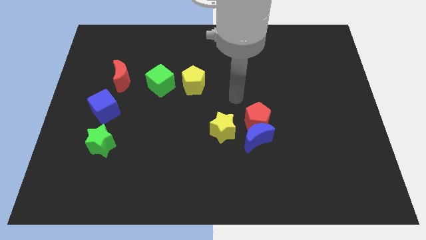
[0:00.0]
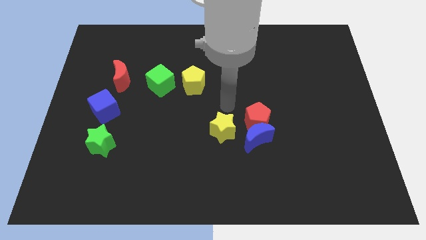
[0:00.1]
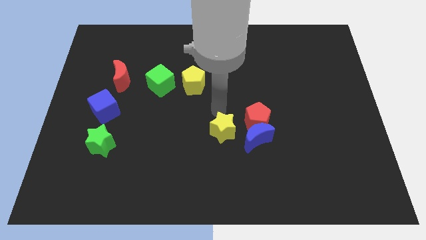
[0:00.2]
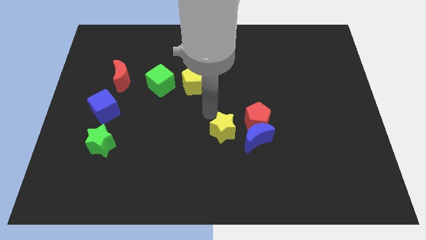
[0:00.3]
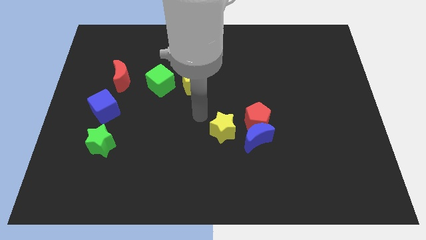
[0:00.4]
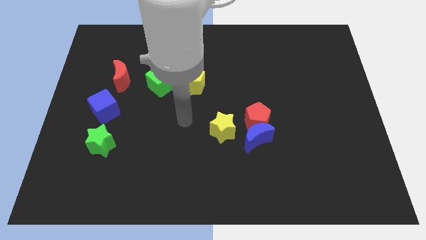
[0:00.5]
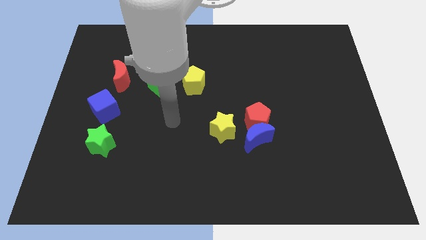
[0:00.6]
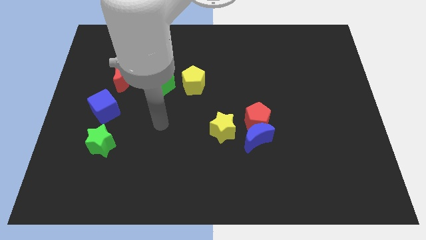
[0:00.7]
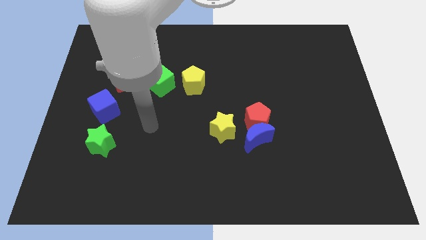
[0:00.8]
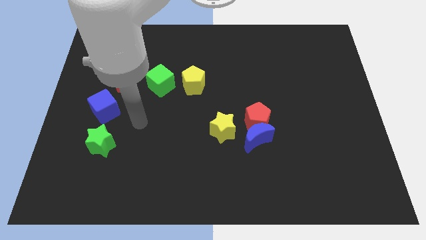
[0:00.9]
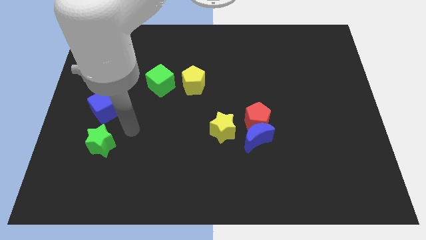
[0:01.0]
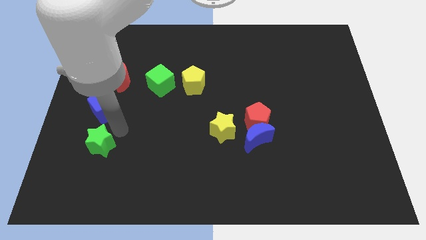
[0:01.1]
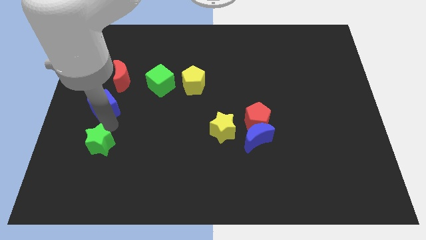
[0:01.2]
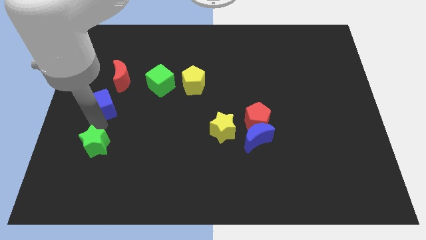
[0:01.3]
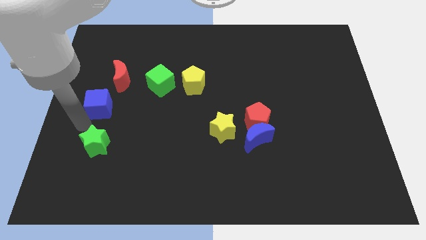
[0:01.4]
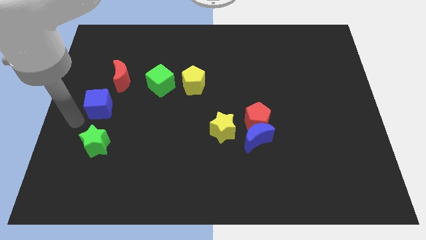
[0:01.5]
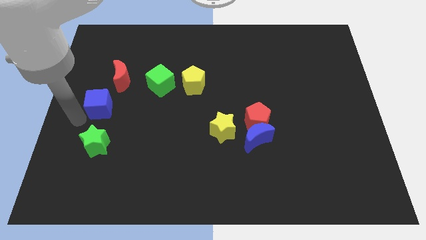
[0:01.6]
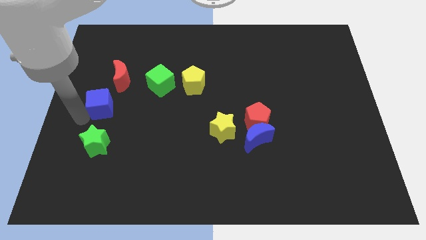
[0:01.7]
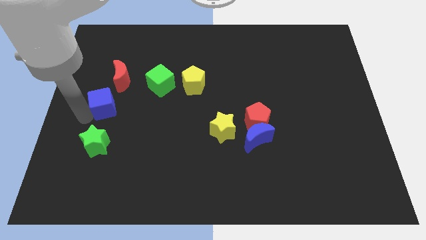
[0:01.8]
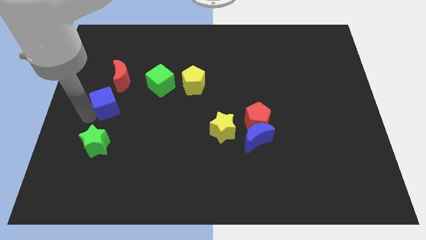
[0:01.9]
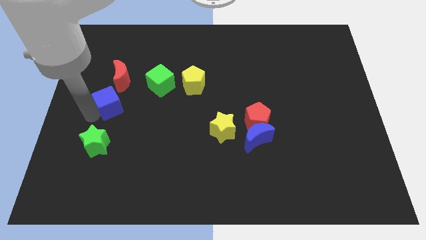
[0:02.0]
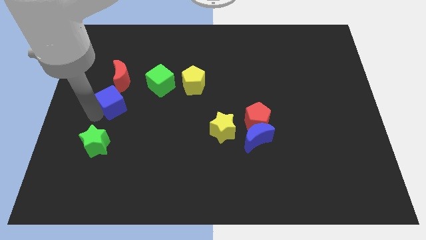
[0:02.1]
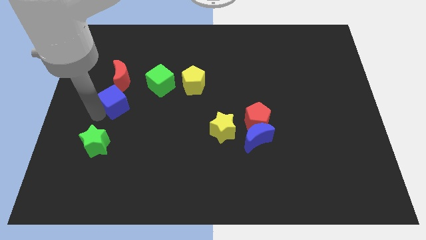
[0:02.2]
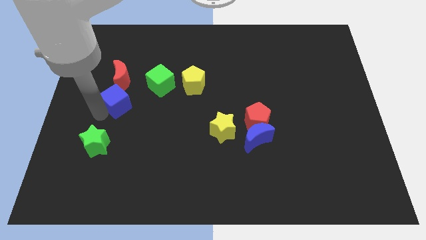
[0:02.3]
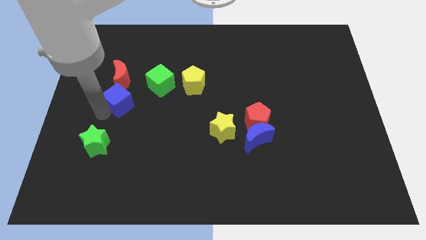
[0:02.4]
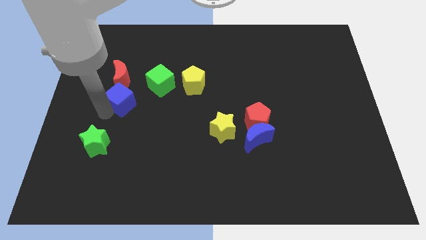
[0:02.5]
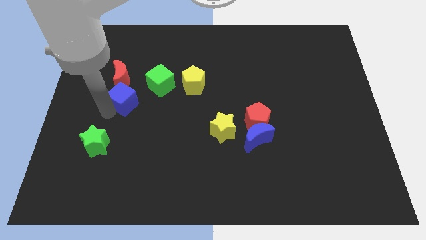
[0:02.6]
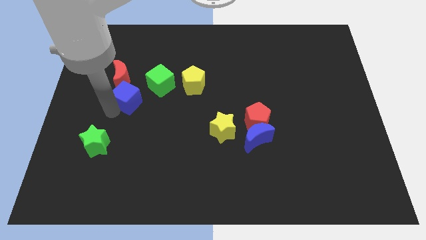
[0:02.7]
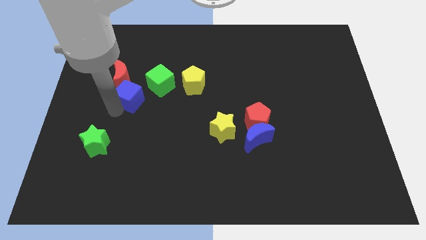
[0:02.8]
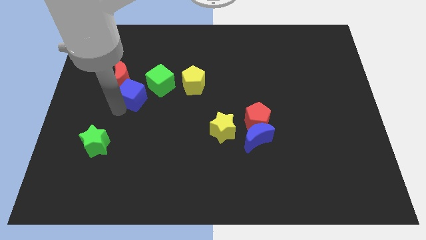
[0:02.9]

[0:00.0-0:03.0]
slide the blue cube upwards and then to the right a bit

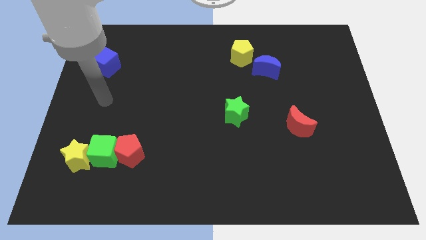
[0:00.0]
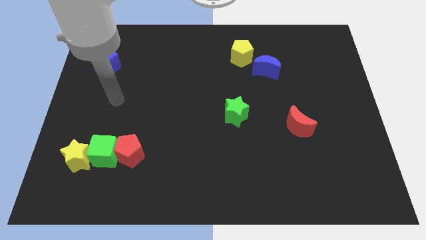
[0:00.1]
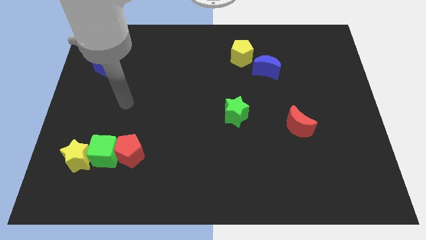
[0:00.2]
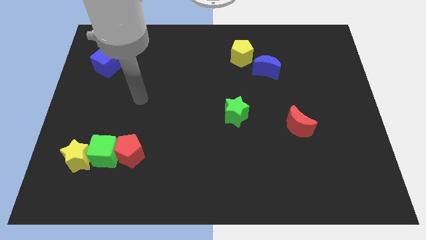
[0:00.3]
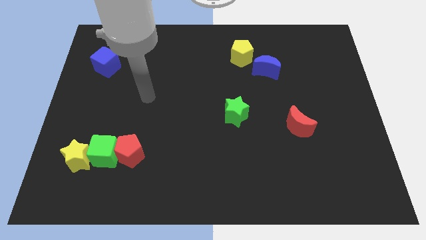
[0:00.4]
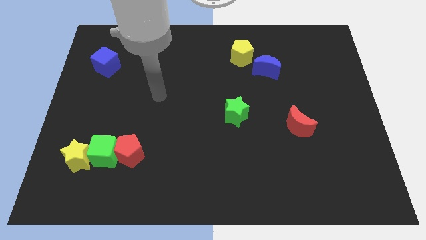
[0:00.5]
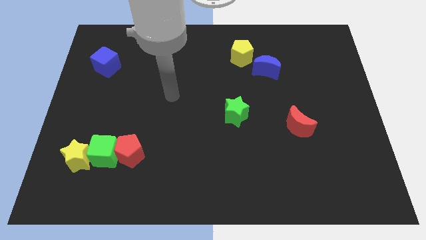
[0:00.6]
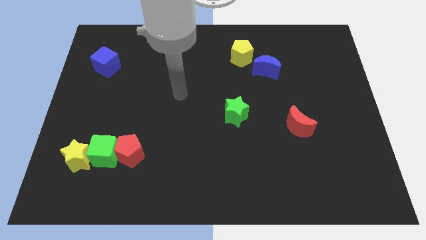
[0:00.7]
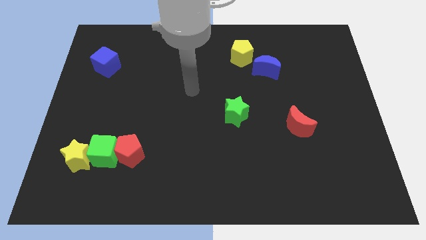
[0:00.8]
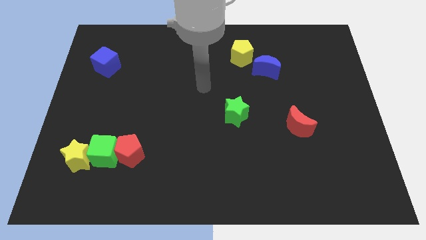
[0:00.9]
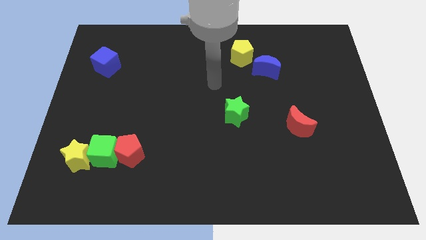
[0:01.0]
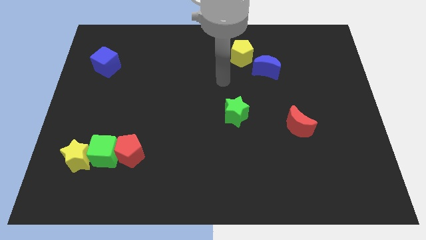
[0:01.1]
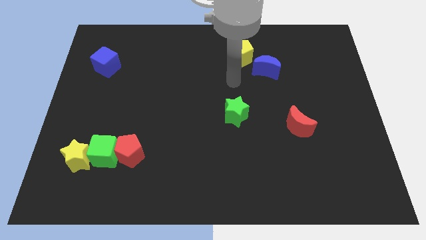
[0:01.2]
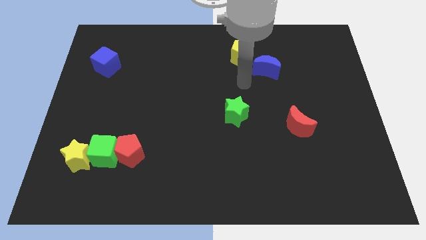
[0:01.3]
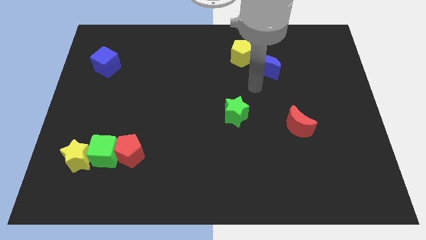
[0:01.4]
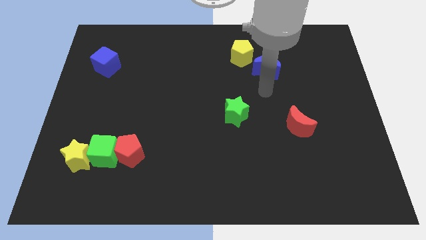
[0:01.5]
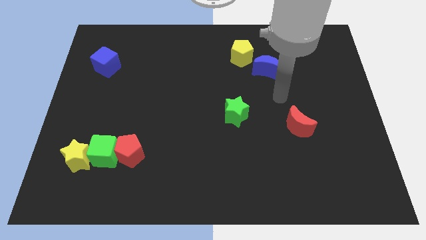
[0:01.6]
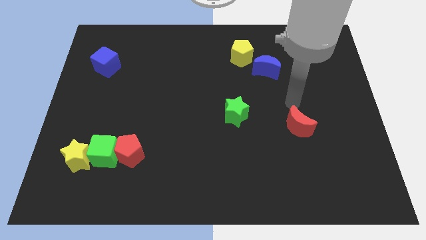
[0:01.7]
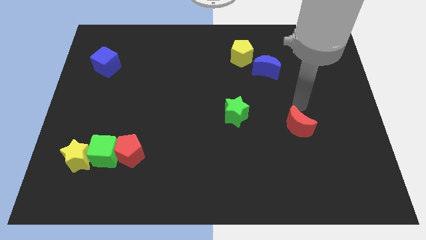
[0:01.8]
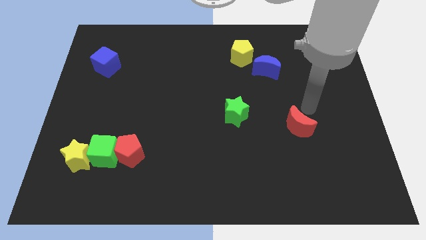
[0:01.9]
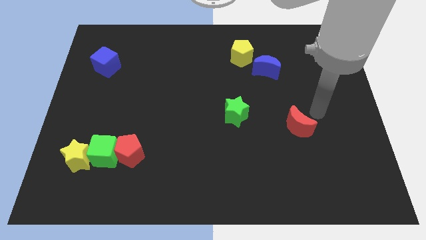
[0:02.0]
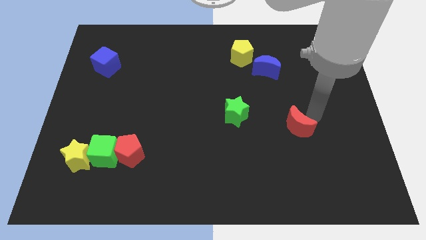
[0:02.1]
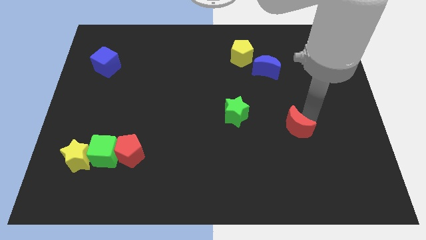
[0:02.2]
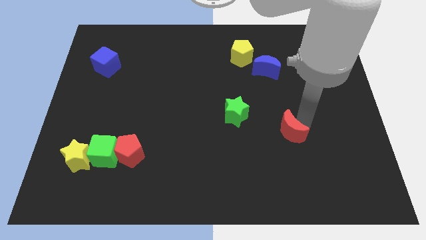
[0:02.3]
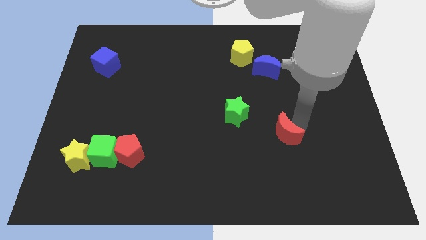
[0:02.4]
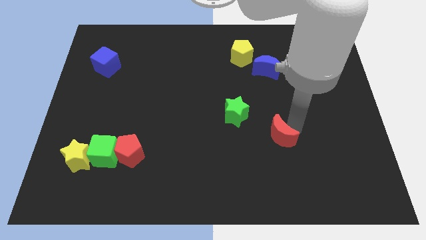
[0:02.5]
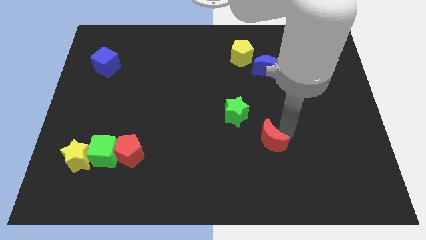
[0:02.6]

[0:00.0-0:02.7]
slightly push the red moon diagonally down and to the left

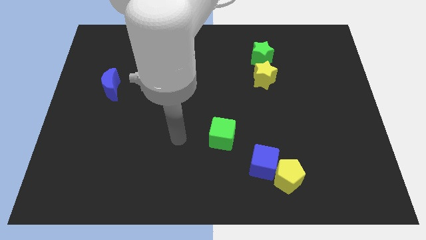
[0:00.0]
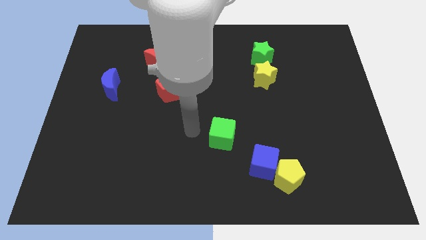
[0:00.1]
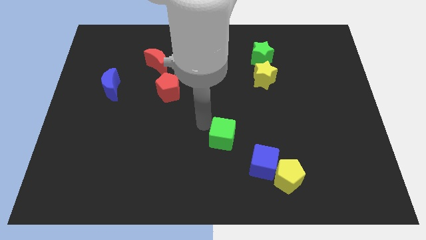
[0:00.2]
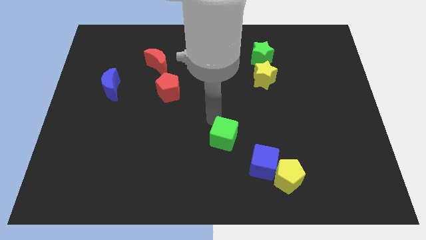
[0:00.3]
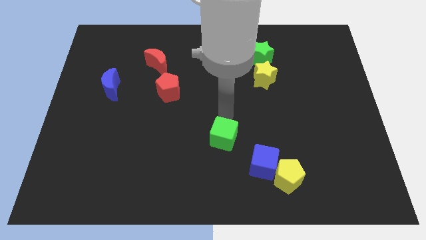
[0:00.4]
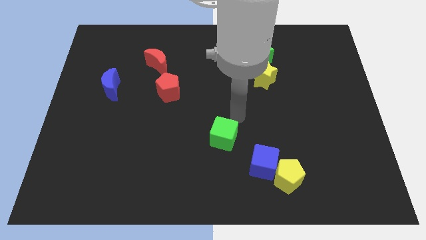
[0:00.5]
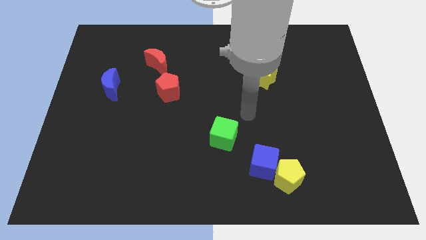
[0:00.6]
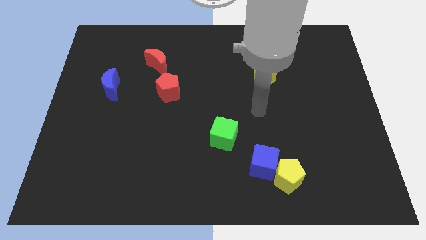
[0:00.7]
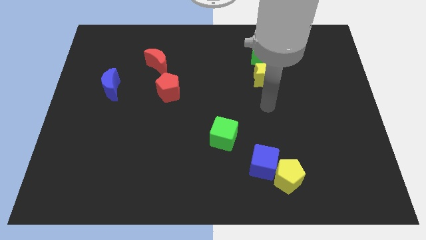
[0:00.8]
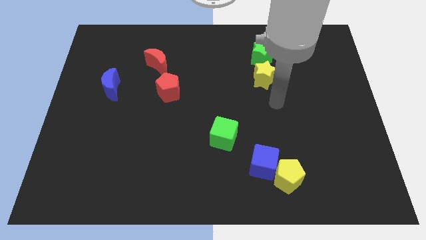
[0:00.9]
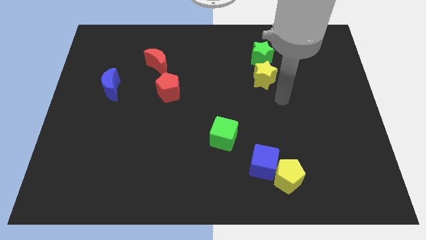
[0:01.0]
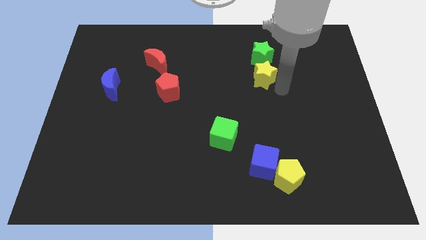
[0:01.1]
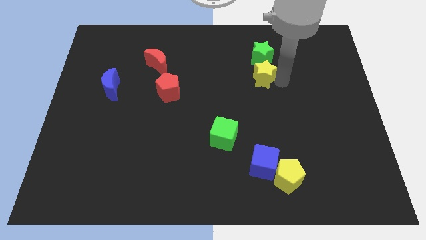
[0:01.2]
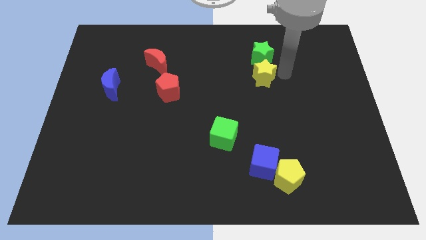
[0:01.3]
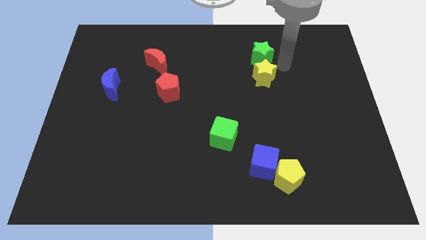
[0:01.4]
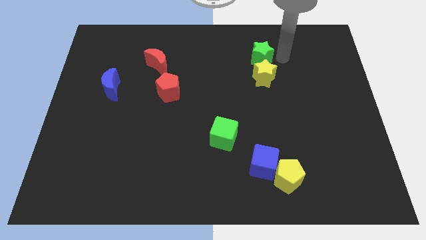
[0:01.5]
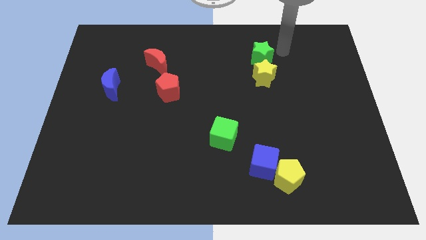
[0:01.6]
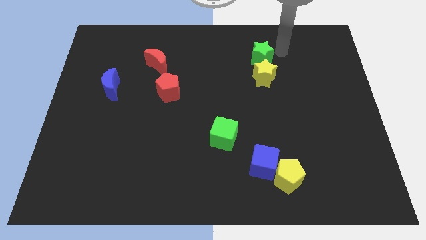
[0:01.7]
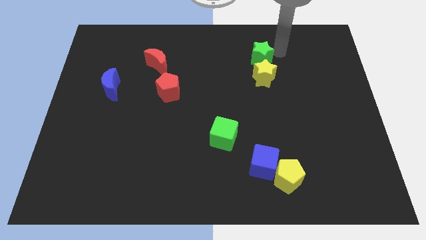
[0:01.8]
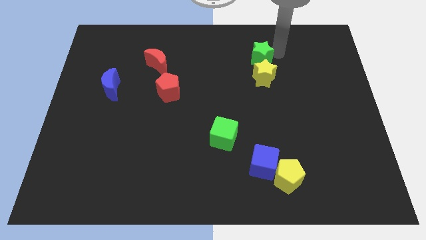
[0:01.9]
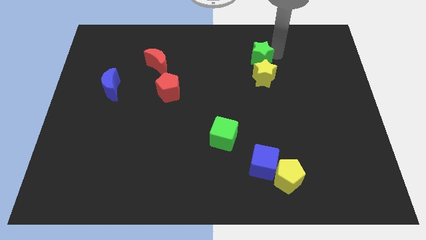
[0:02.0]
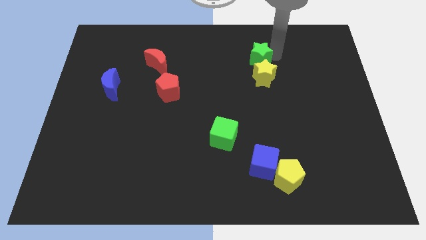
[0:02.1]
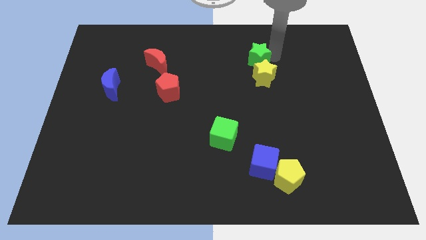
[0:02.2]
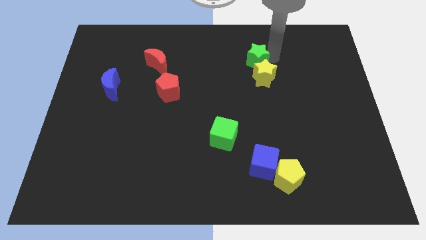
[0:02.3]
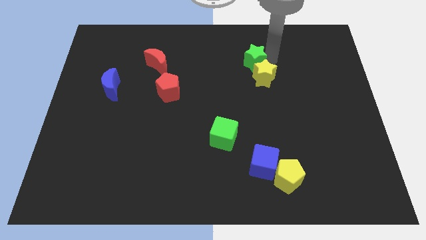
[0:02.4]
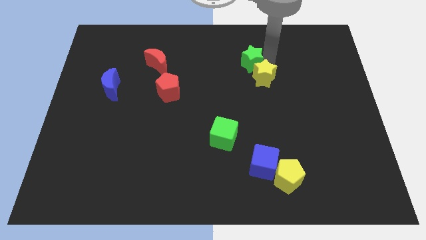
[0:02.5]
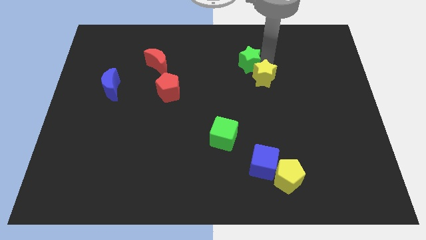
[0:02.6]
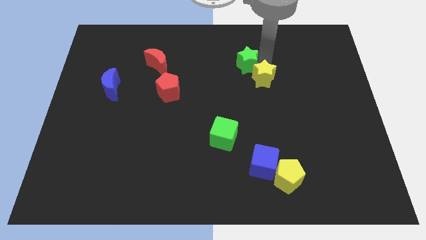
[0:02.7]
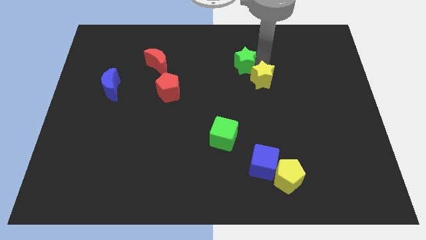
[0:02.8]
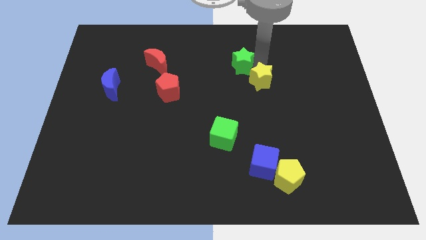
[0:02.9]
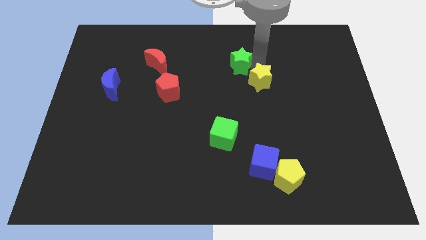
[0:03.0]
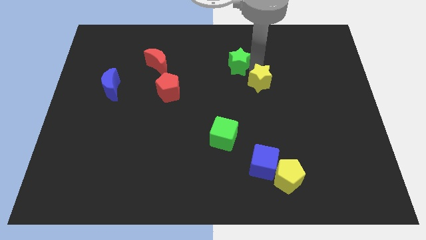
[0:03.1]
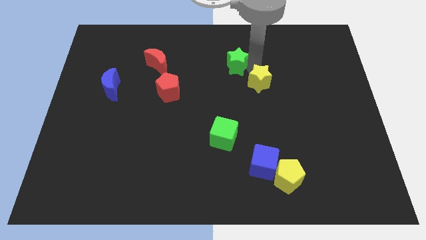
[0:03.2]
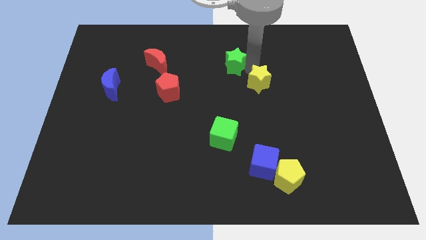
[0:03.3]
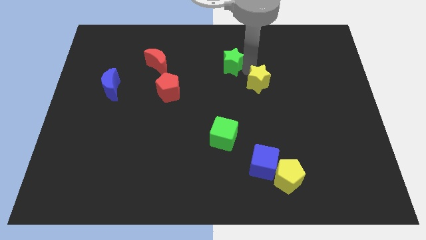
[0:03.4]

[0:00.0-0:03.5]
slightly push the green star left
